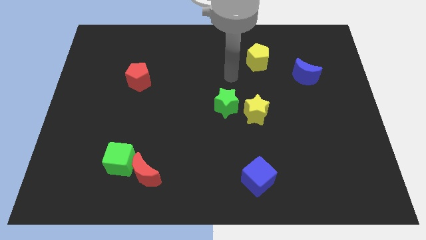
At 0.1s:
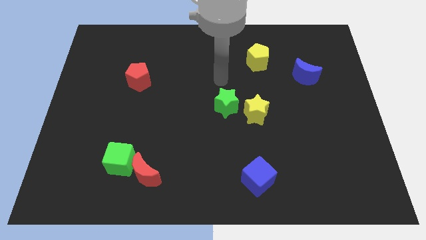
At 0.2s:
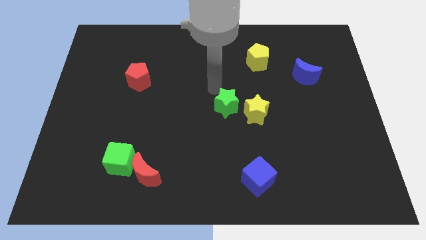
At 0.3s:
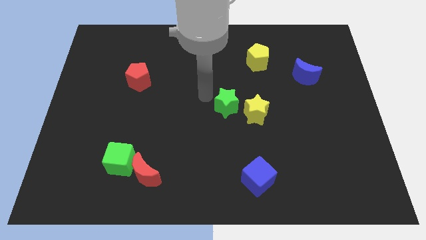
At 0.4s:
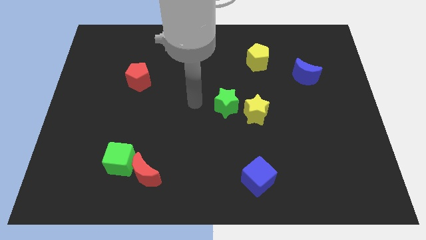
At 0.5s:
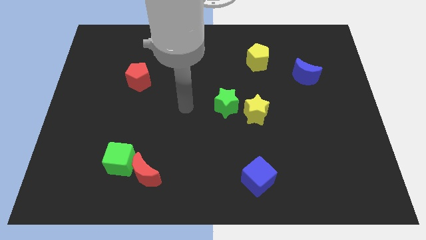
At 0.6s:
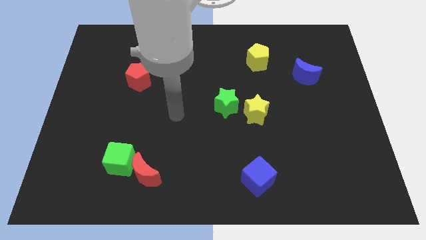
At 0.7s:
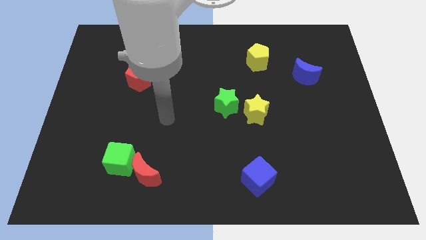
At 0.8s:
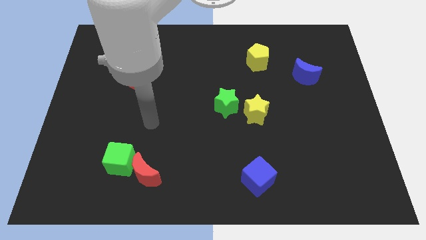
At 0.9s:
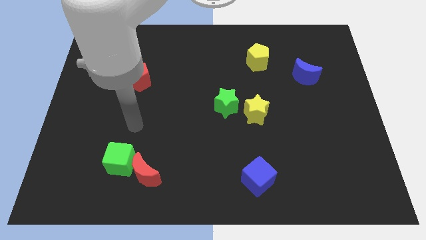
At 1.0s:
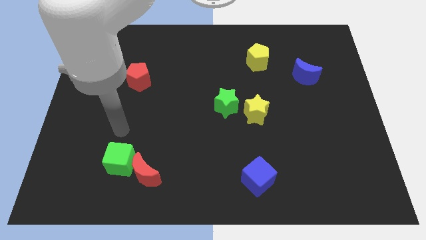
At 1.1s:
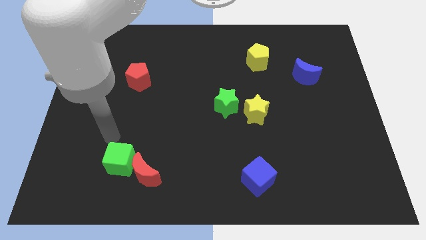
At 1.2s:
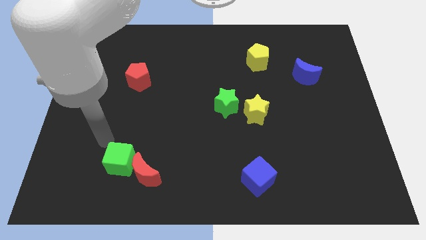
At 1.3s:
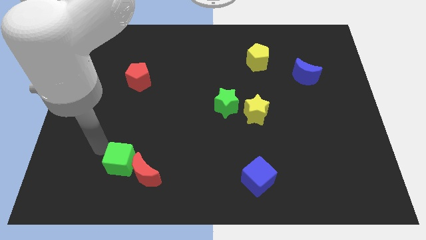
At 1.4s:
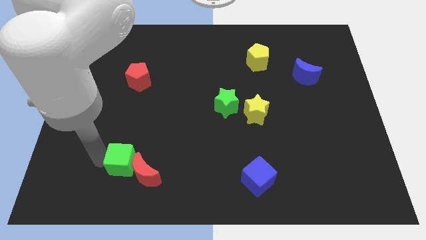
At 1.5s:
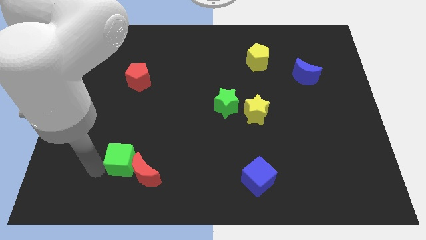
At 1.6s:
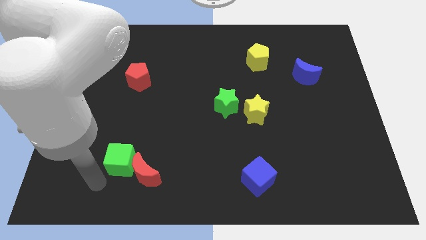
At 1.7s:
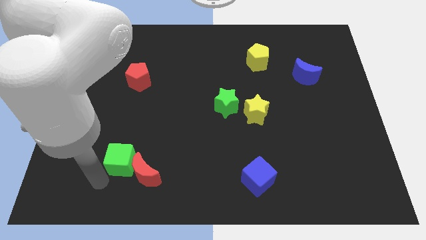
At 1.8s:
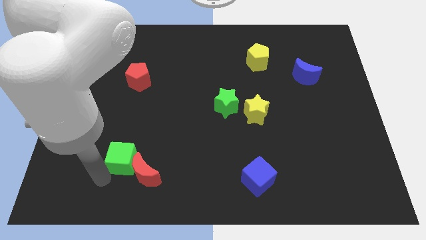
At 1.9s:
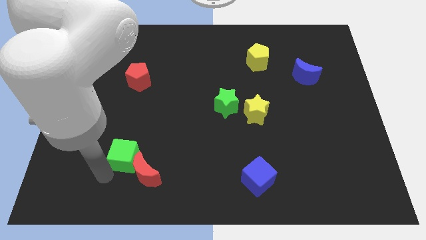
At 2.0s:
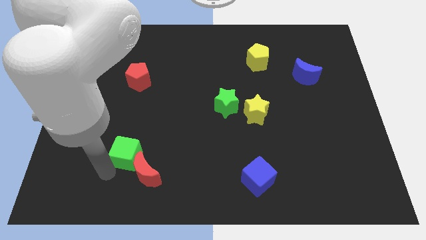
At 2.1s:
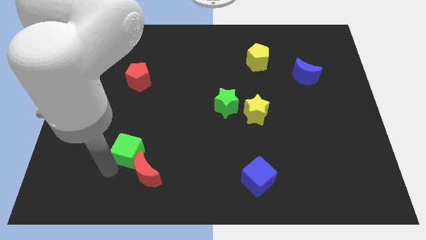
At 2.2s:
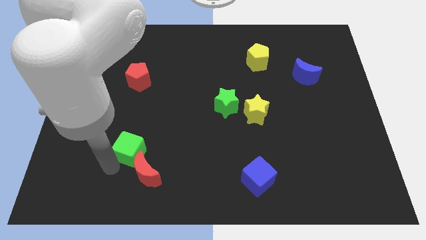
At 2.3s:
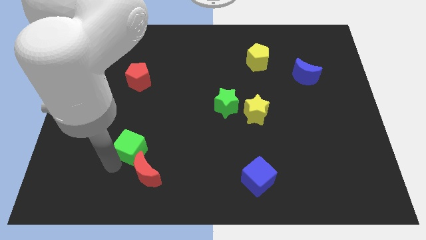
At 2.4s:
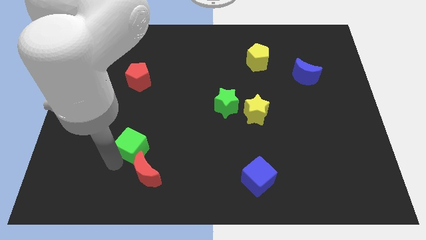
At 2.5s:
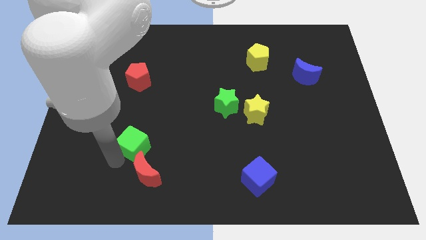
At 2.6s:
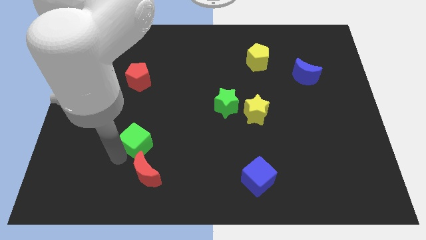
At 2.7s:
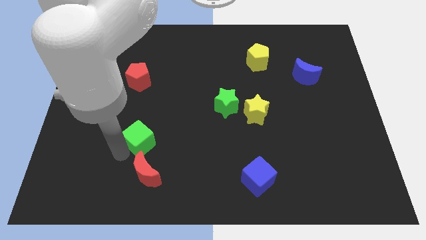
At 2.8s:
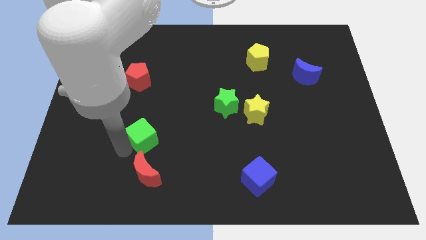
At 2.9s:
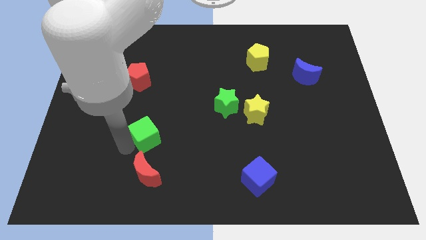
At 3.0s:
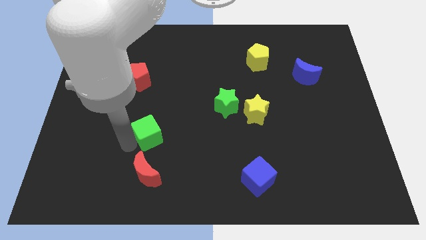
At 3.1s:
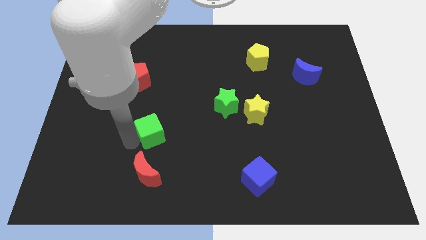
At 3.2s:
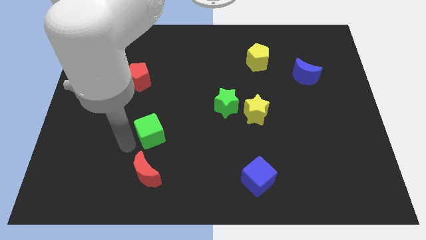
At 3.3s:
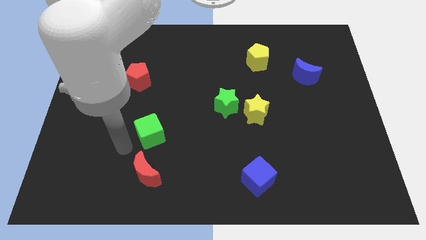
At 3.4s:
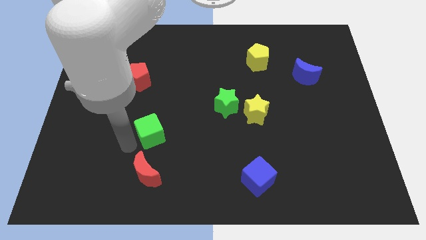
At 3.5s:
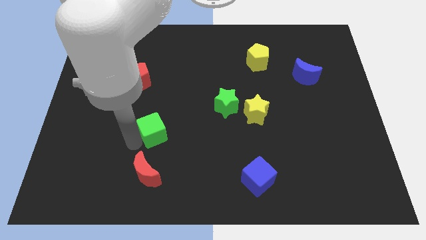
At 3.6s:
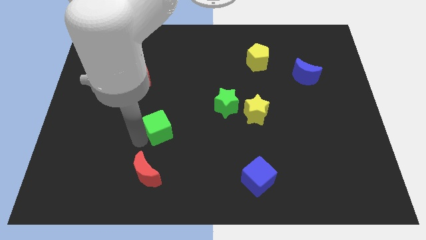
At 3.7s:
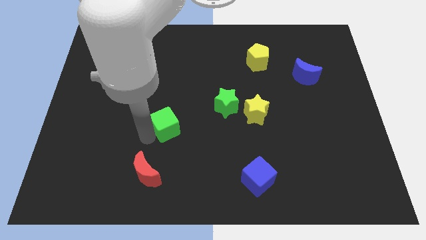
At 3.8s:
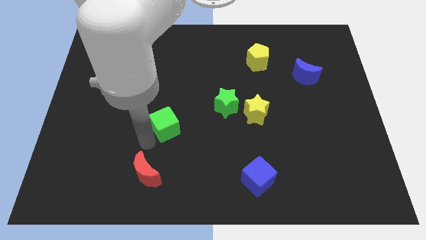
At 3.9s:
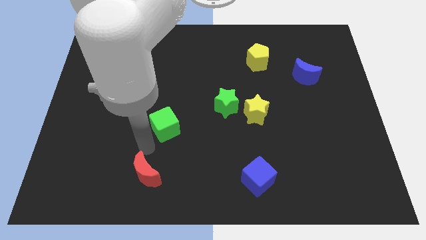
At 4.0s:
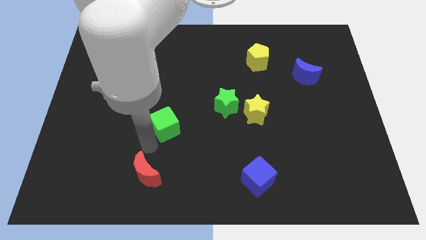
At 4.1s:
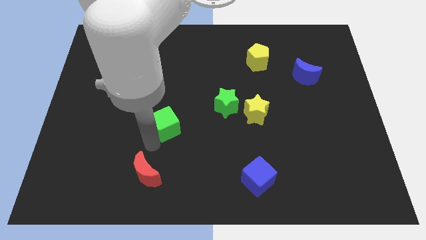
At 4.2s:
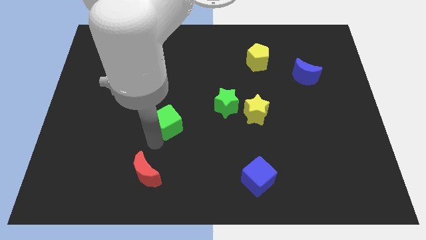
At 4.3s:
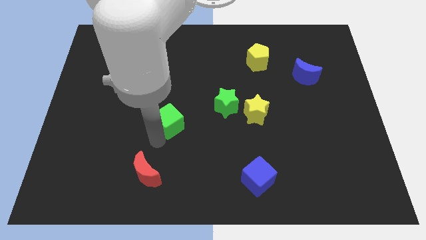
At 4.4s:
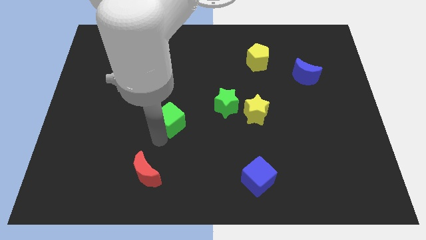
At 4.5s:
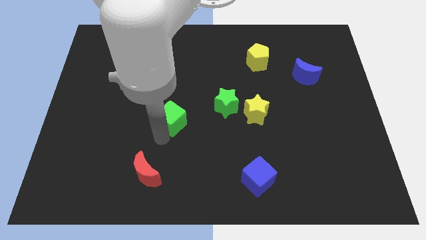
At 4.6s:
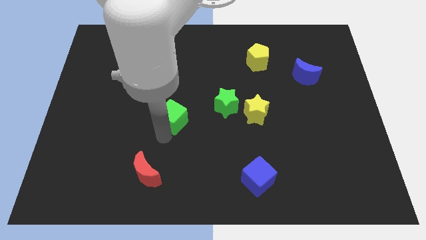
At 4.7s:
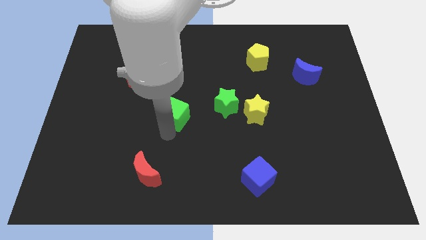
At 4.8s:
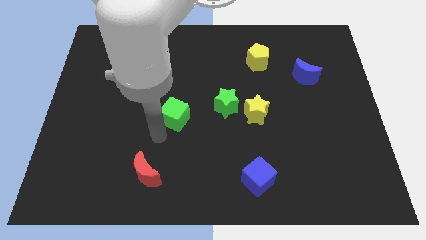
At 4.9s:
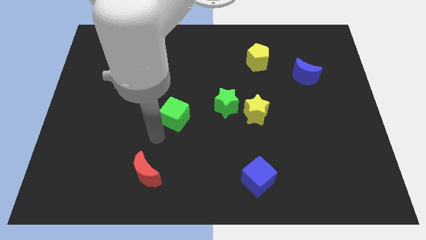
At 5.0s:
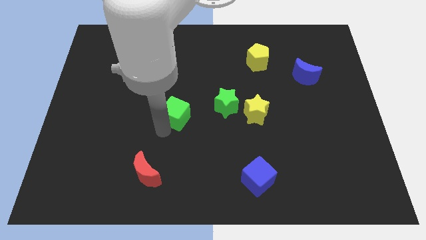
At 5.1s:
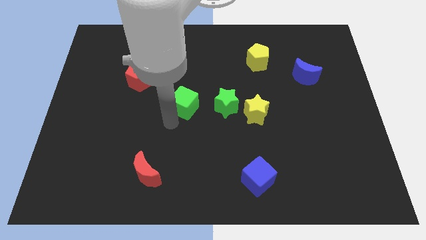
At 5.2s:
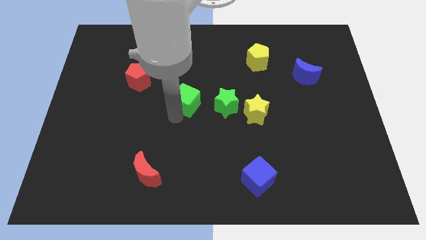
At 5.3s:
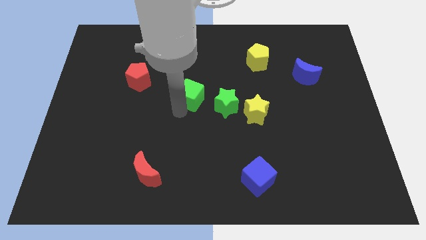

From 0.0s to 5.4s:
push the green cube to the top left of the green star

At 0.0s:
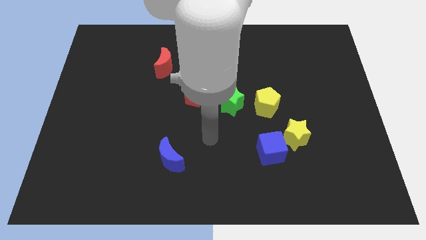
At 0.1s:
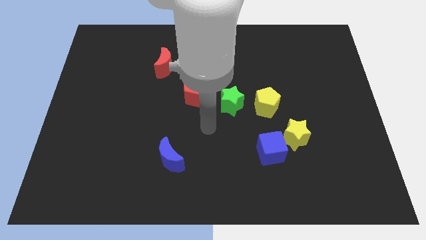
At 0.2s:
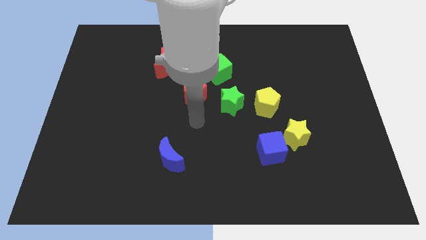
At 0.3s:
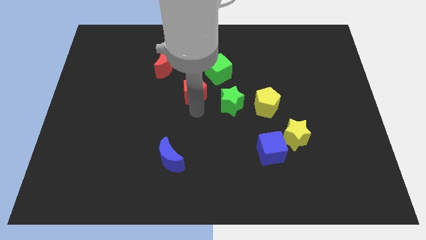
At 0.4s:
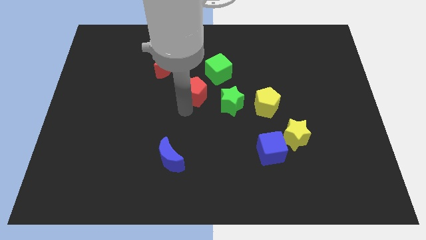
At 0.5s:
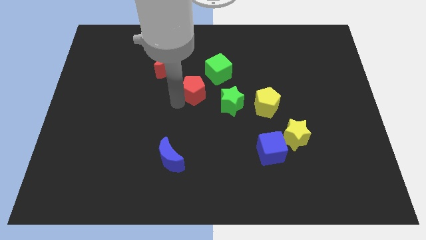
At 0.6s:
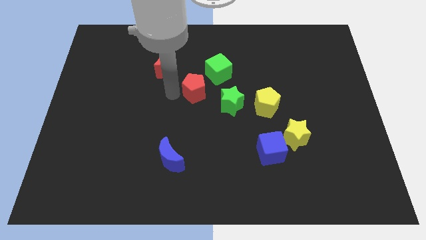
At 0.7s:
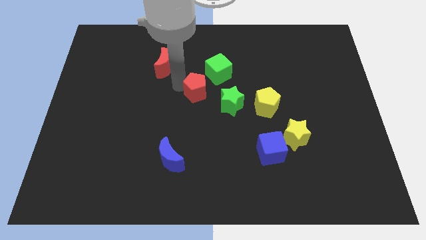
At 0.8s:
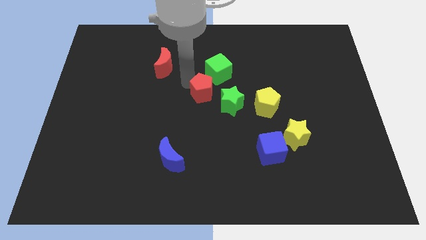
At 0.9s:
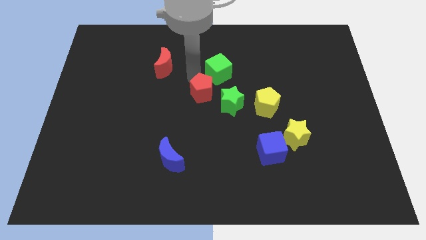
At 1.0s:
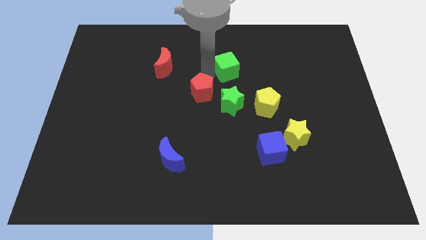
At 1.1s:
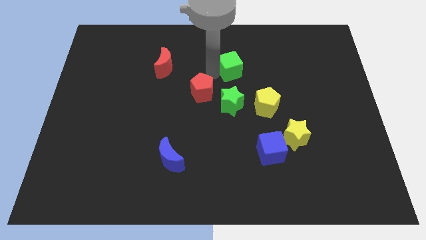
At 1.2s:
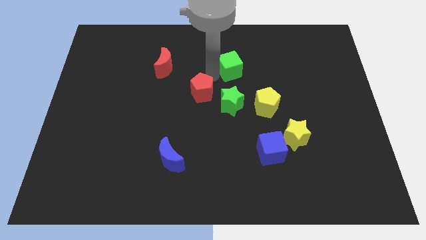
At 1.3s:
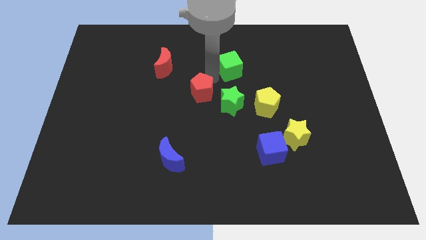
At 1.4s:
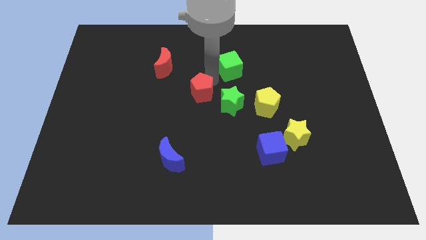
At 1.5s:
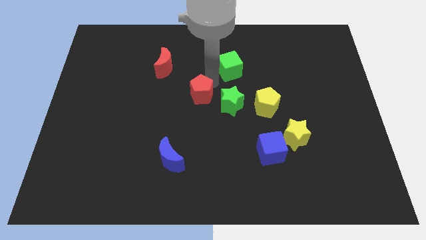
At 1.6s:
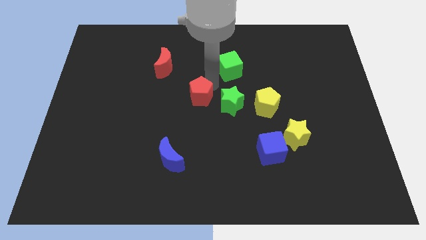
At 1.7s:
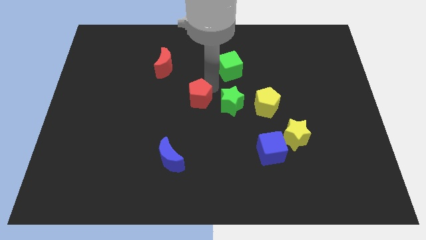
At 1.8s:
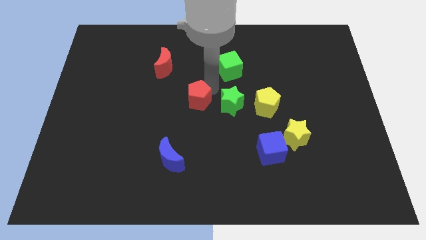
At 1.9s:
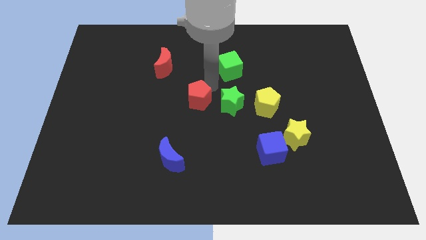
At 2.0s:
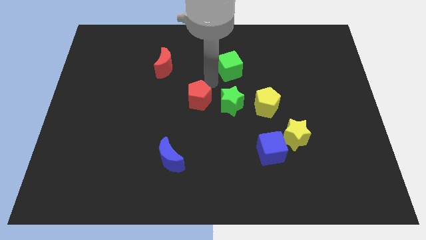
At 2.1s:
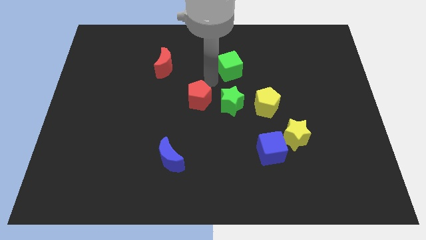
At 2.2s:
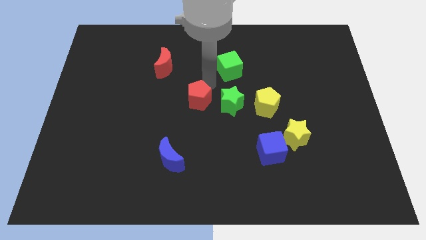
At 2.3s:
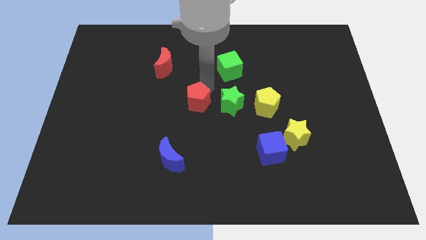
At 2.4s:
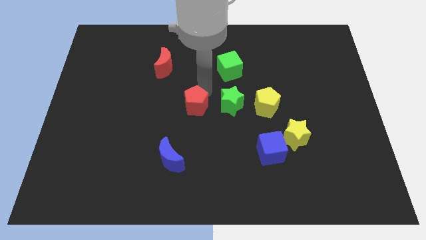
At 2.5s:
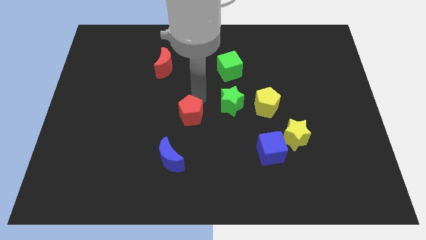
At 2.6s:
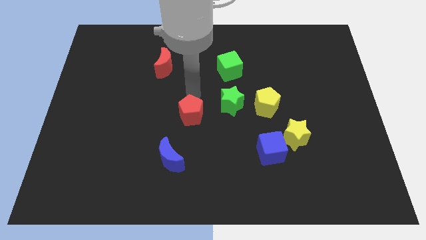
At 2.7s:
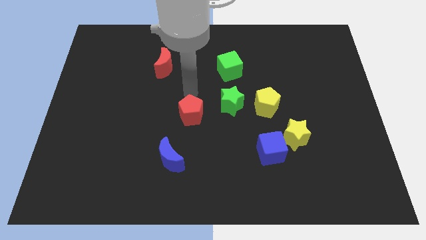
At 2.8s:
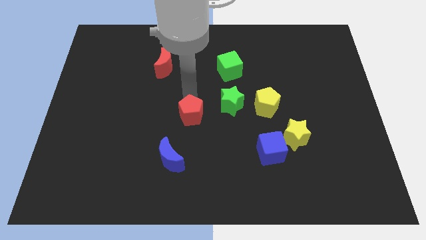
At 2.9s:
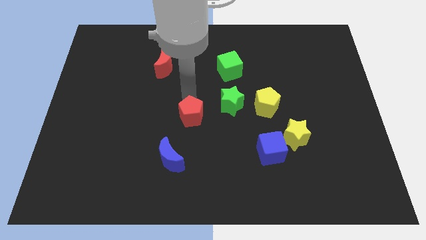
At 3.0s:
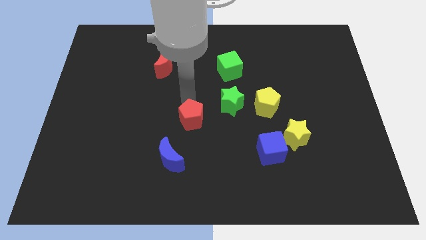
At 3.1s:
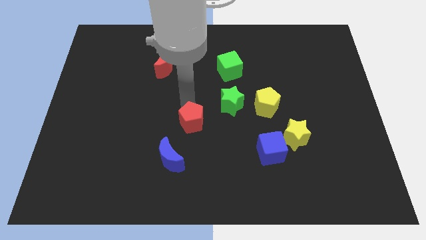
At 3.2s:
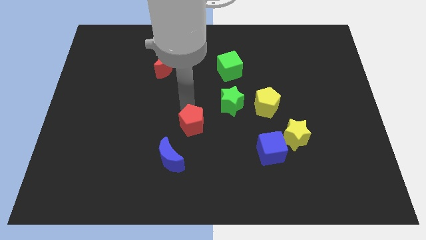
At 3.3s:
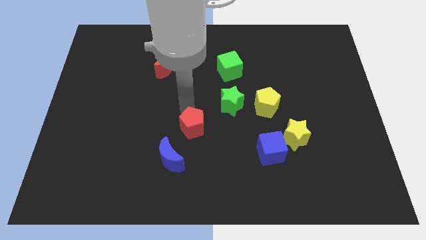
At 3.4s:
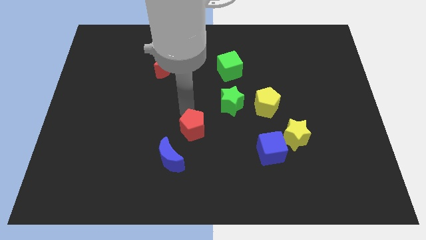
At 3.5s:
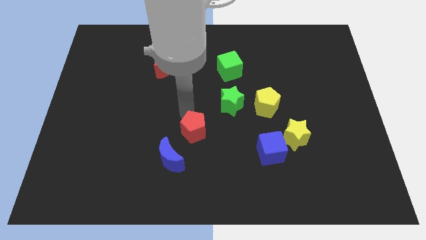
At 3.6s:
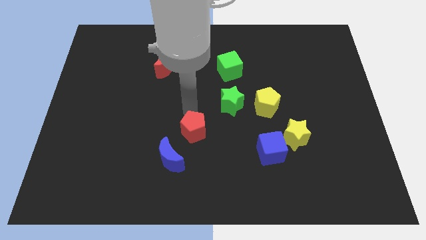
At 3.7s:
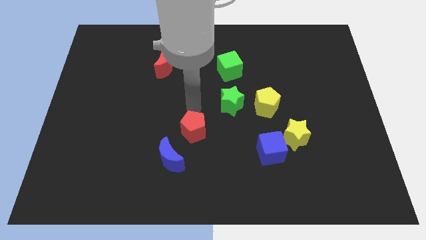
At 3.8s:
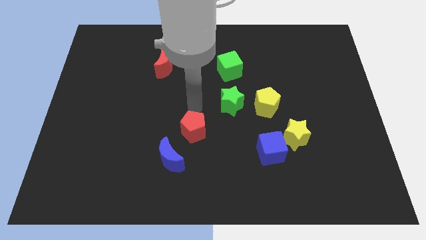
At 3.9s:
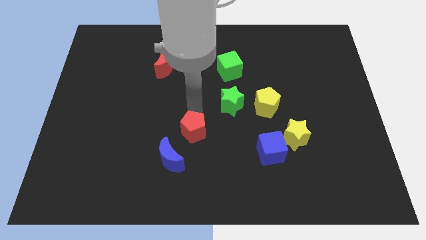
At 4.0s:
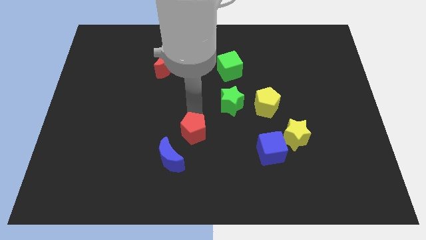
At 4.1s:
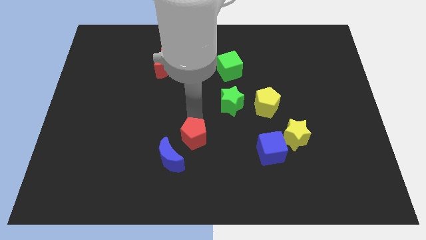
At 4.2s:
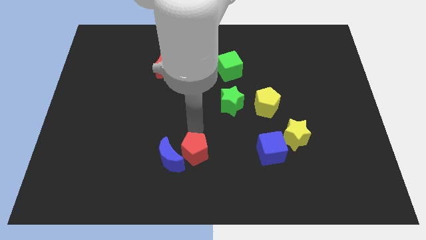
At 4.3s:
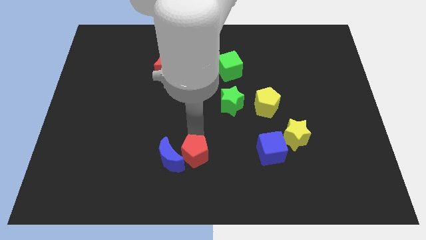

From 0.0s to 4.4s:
move the red pentagon to the bottom right of the blue moon
